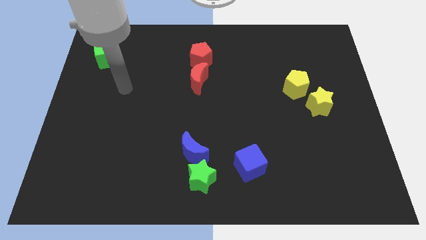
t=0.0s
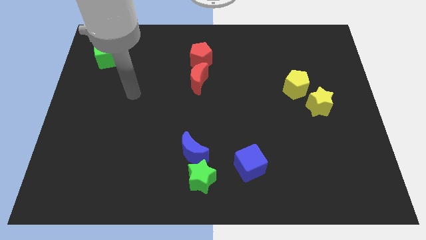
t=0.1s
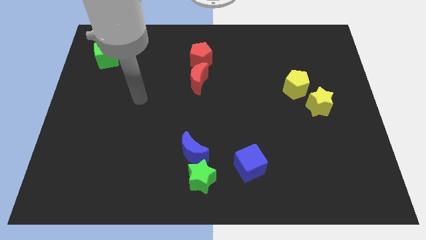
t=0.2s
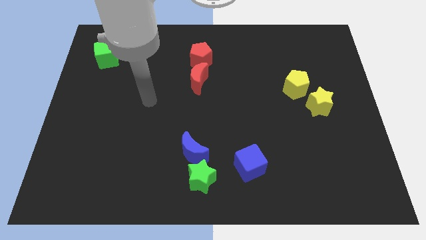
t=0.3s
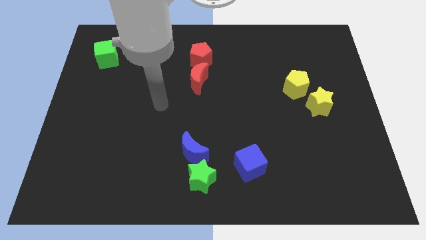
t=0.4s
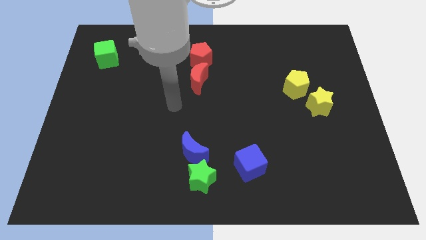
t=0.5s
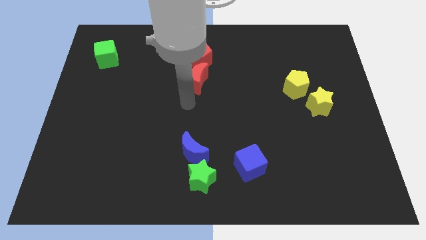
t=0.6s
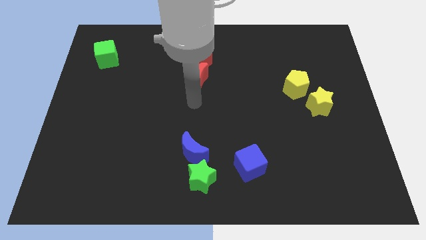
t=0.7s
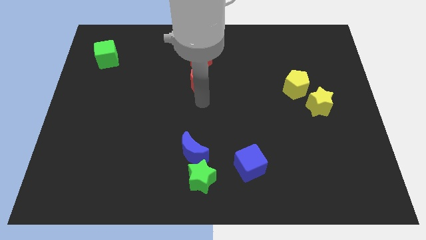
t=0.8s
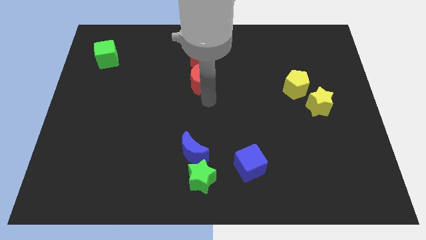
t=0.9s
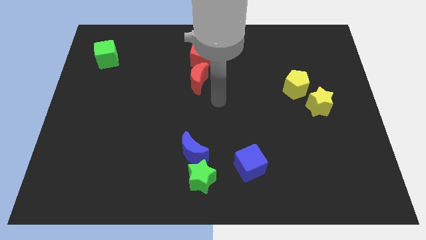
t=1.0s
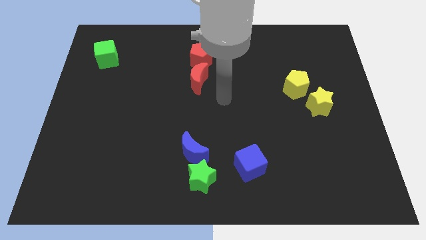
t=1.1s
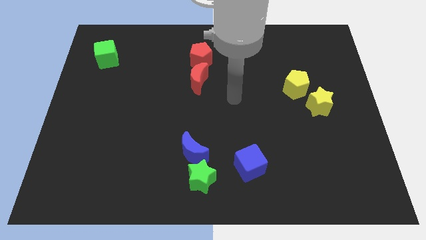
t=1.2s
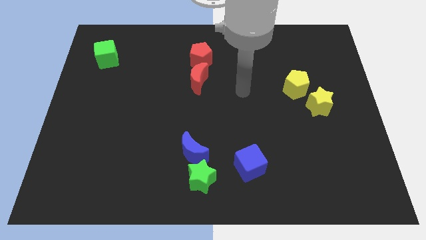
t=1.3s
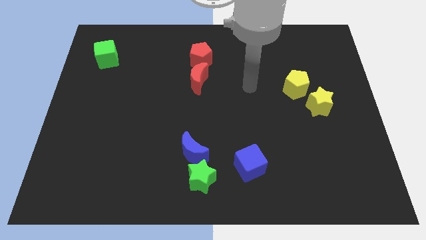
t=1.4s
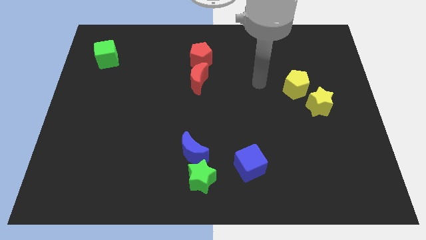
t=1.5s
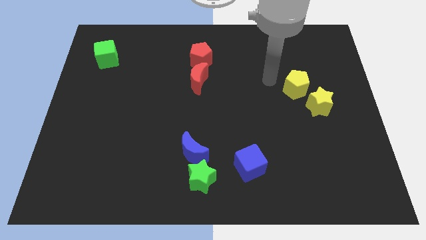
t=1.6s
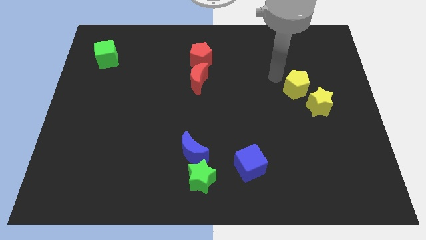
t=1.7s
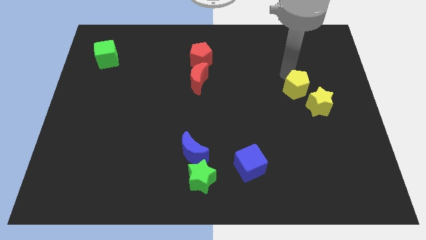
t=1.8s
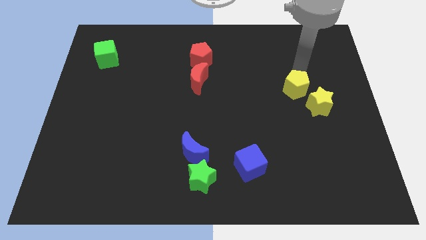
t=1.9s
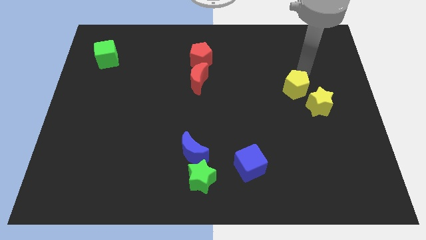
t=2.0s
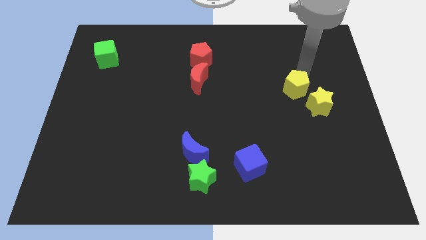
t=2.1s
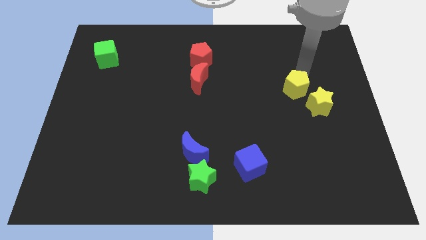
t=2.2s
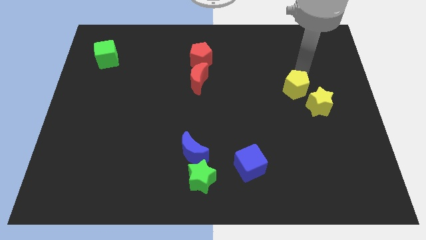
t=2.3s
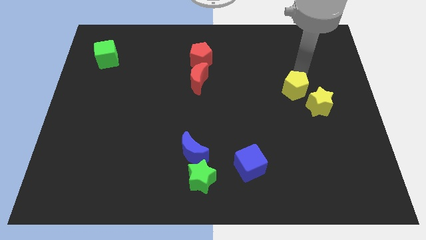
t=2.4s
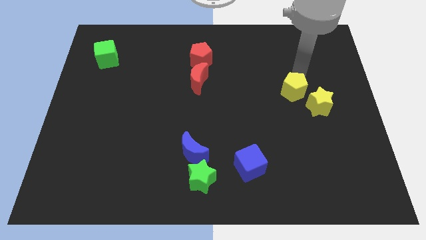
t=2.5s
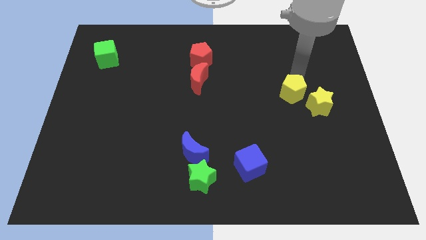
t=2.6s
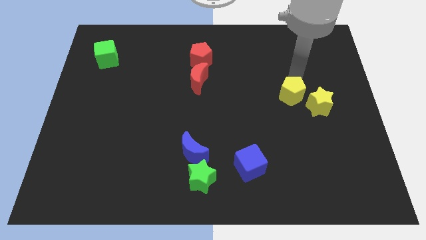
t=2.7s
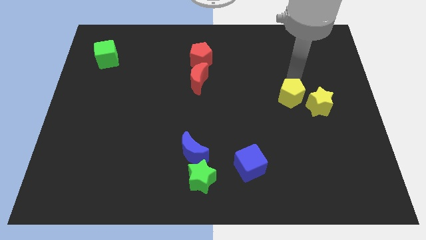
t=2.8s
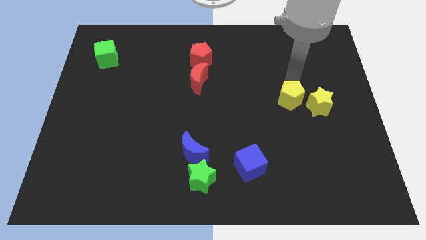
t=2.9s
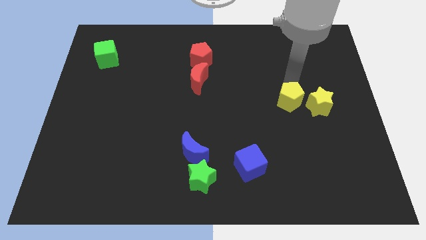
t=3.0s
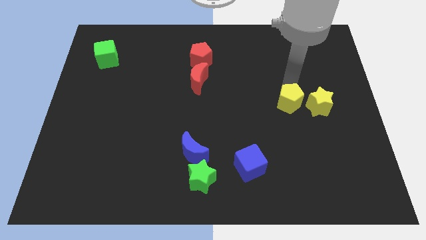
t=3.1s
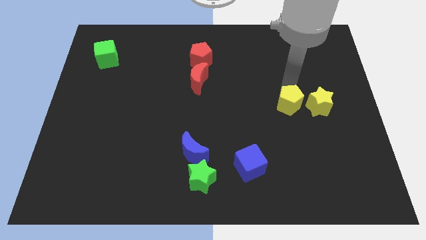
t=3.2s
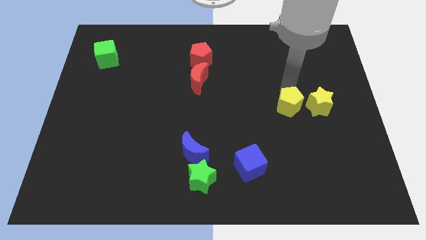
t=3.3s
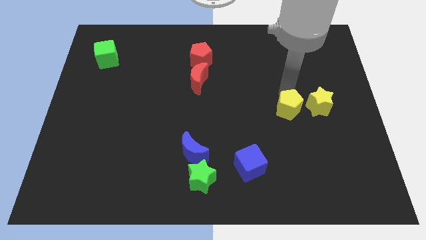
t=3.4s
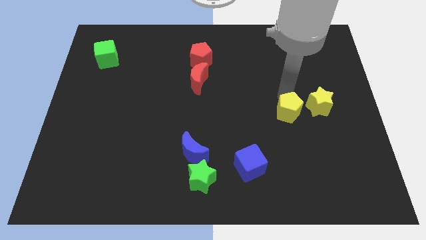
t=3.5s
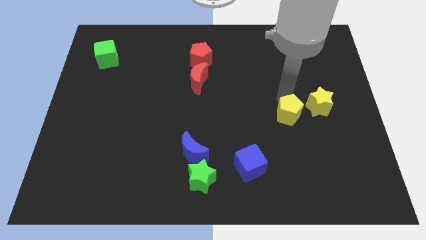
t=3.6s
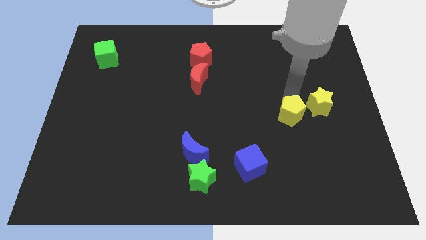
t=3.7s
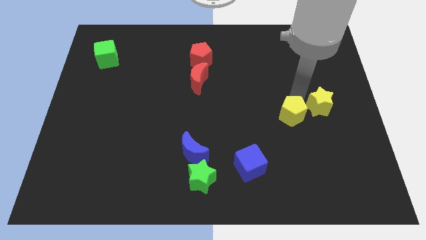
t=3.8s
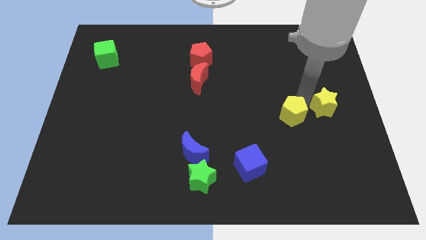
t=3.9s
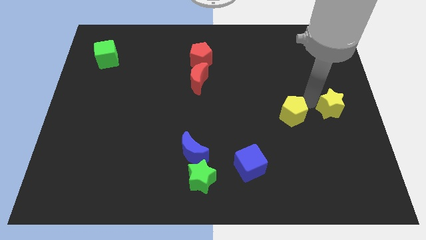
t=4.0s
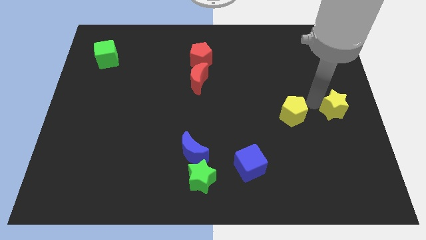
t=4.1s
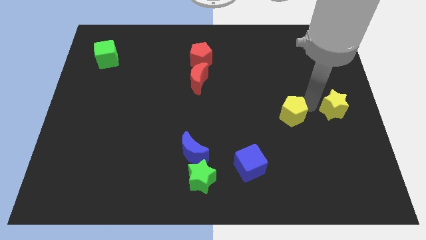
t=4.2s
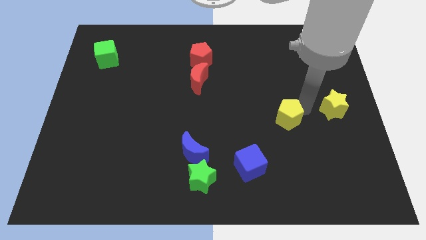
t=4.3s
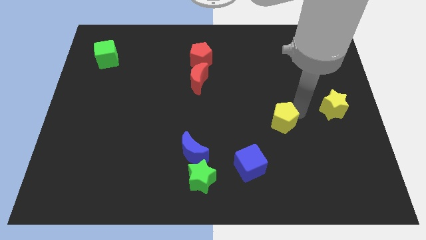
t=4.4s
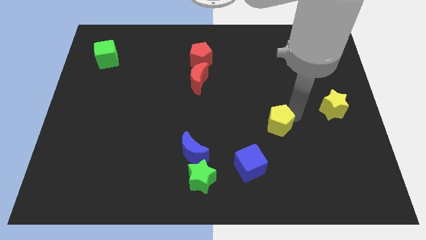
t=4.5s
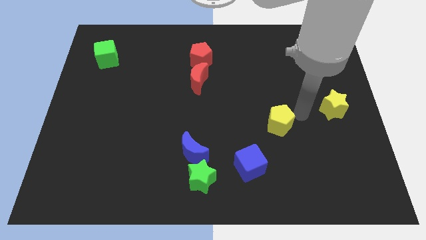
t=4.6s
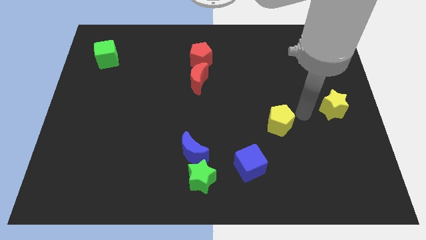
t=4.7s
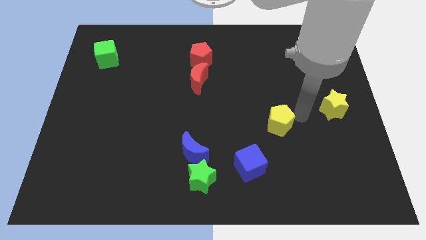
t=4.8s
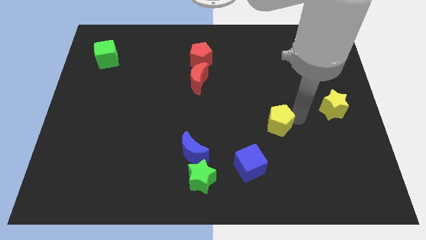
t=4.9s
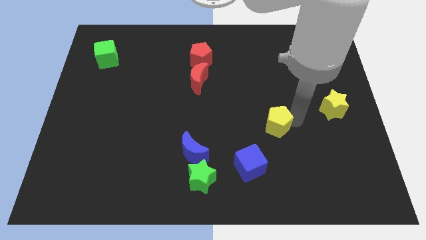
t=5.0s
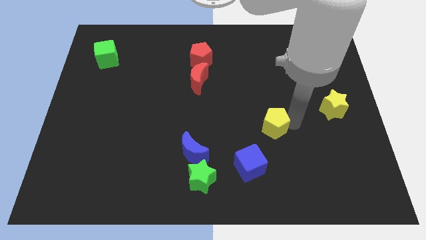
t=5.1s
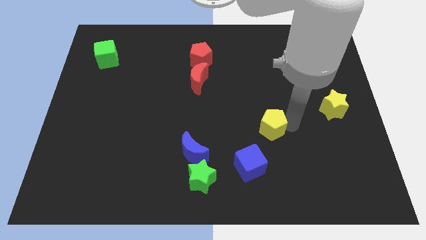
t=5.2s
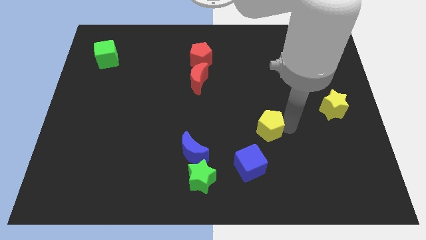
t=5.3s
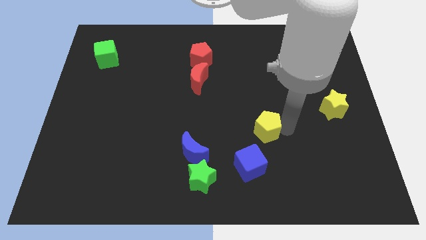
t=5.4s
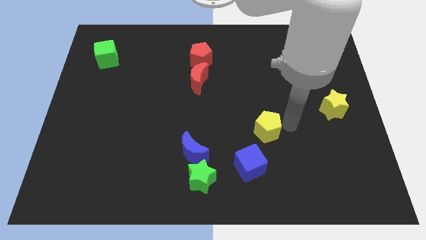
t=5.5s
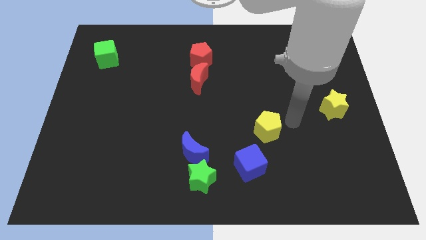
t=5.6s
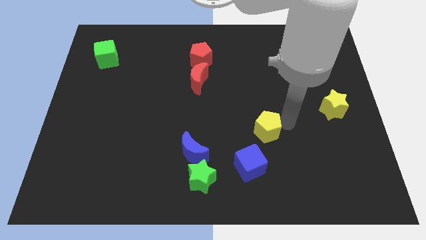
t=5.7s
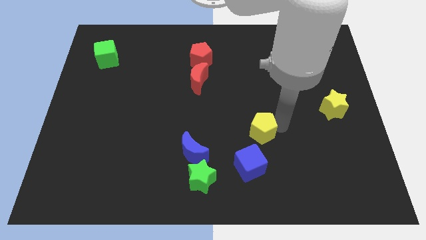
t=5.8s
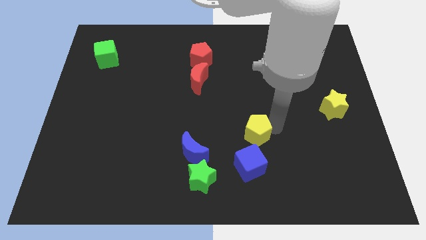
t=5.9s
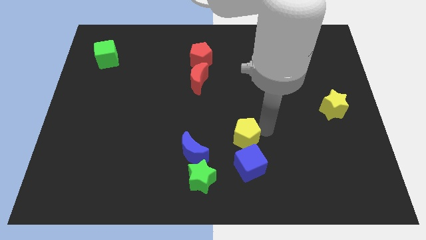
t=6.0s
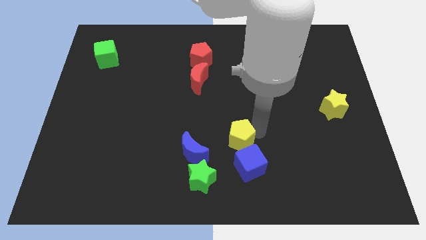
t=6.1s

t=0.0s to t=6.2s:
put the yellow pentagon to the top right of the green star

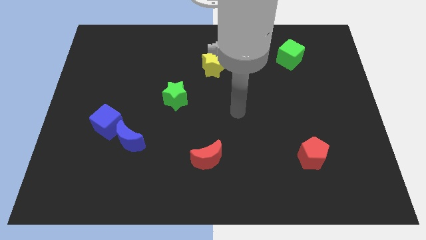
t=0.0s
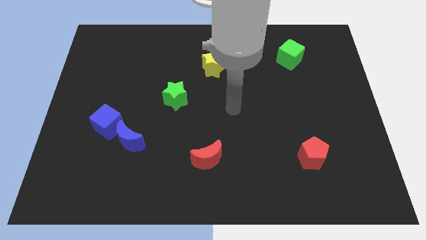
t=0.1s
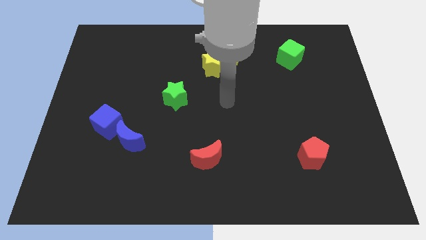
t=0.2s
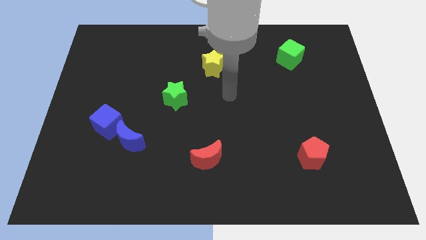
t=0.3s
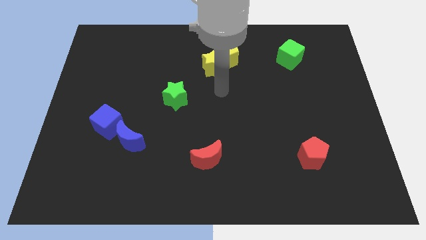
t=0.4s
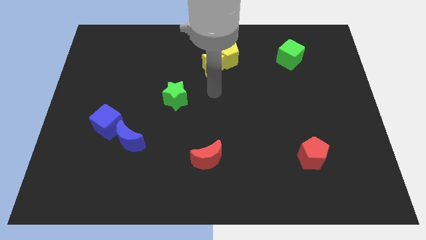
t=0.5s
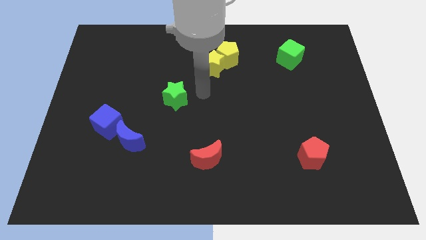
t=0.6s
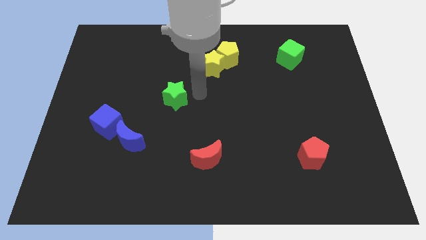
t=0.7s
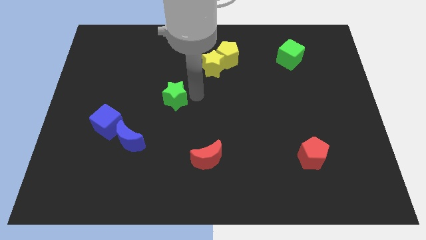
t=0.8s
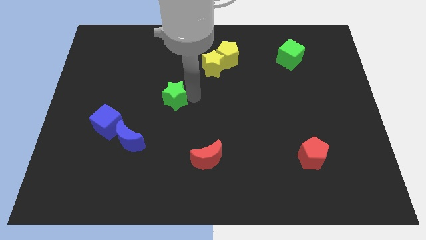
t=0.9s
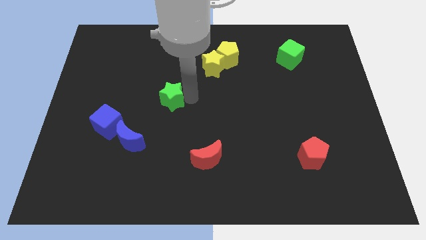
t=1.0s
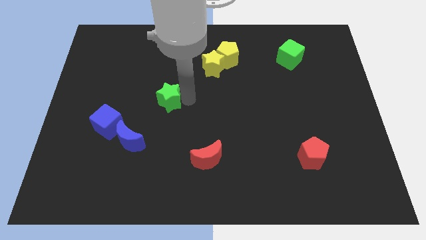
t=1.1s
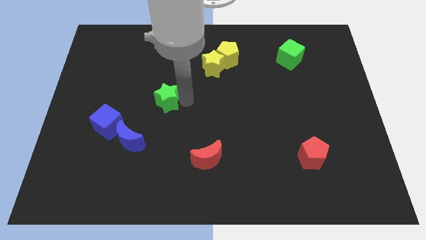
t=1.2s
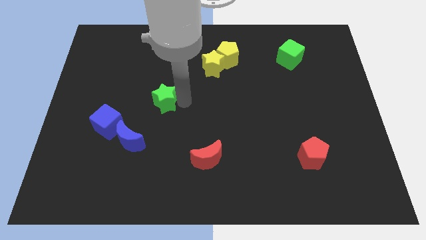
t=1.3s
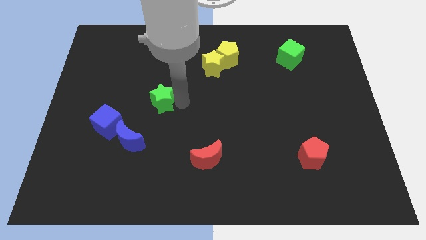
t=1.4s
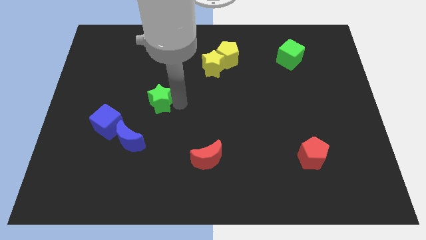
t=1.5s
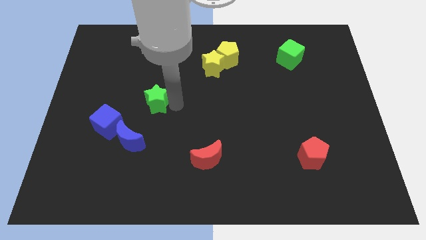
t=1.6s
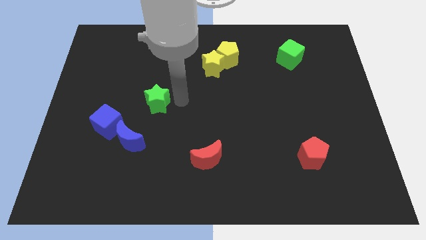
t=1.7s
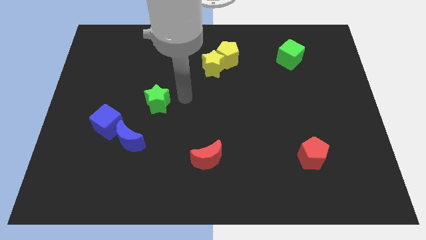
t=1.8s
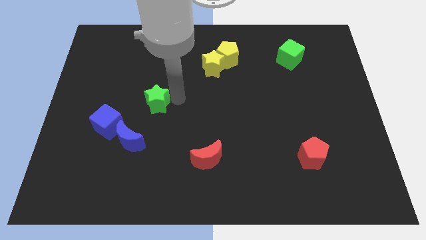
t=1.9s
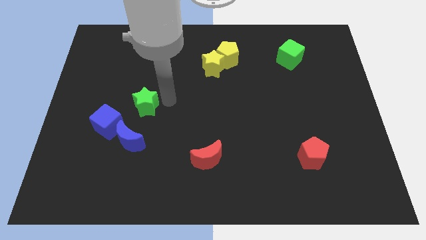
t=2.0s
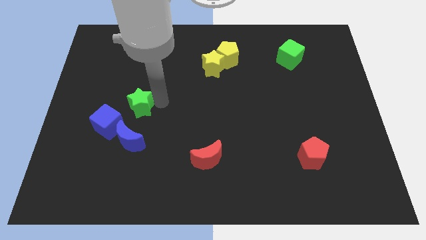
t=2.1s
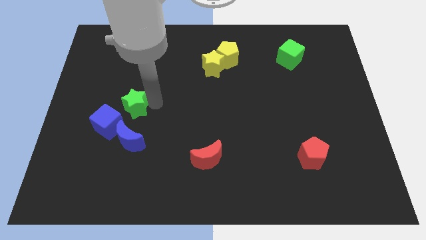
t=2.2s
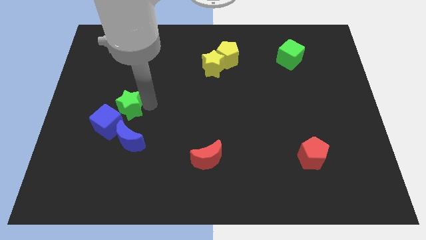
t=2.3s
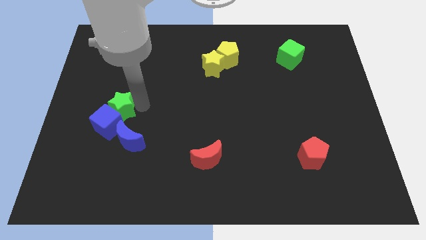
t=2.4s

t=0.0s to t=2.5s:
move the green star diagonally up and to the left of the blue moon
